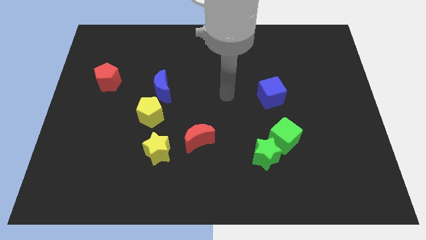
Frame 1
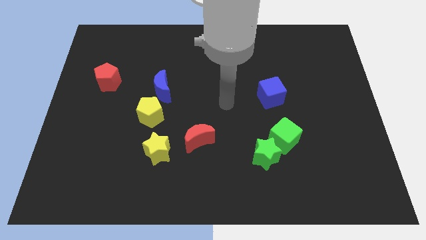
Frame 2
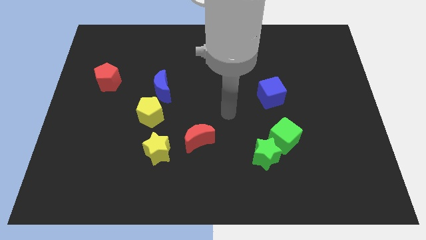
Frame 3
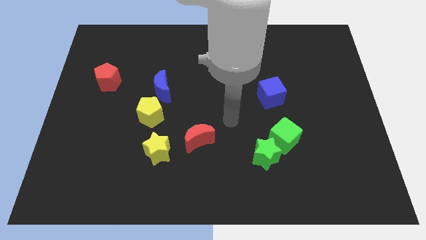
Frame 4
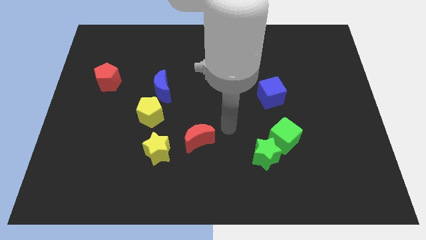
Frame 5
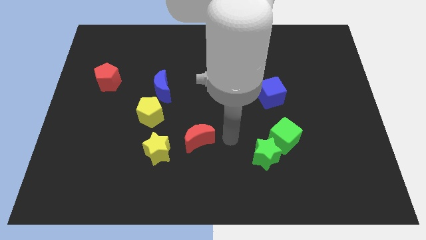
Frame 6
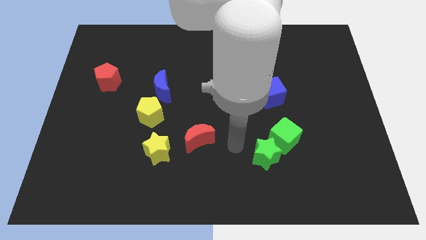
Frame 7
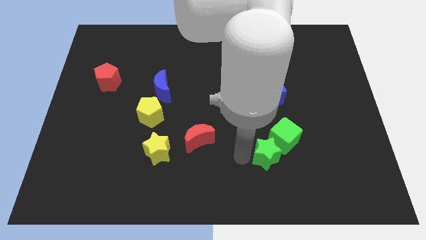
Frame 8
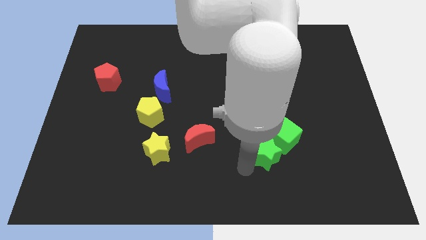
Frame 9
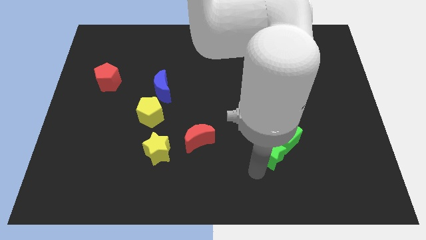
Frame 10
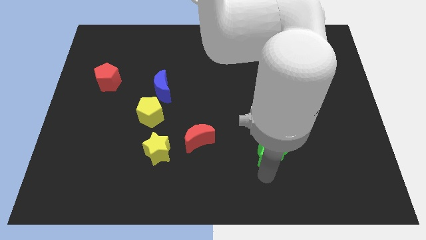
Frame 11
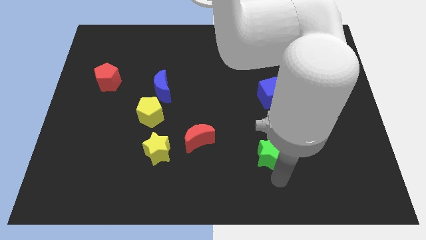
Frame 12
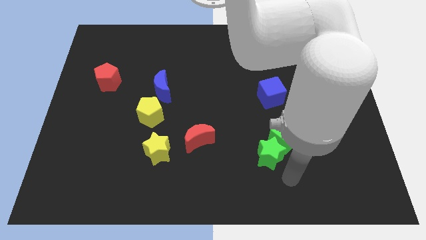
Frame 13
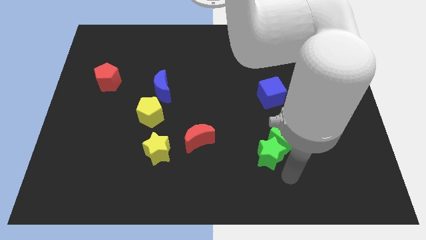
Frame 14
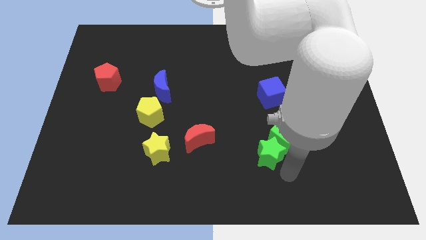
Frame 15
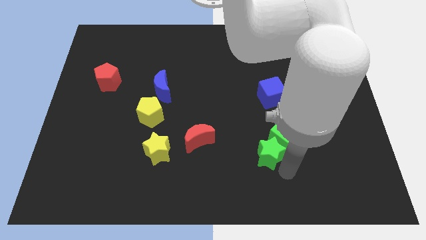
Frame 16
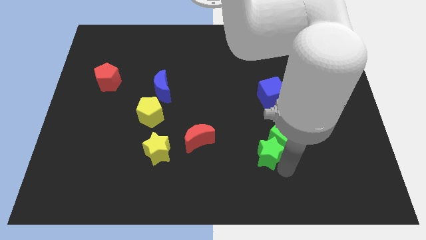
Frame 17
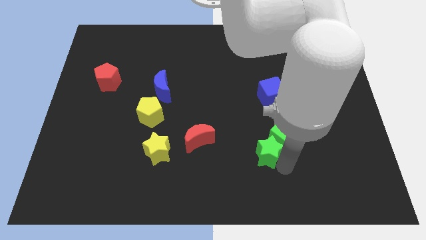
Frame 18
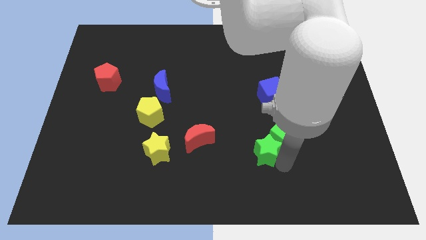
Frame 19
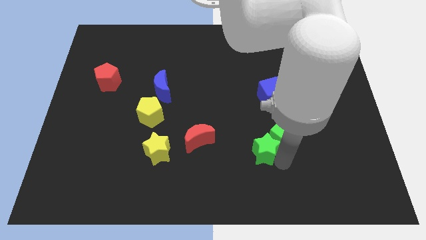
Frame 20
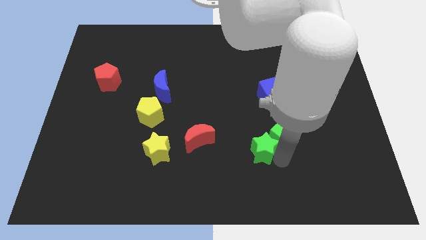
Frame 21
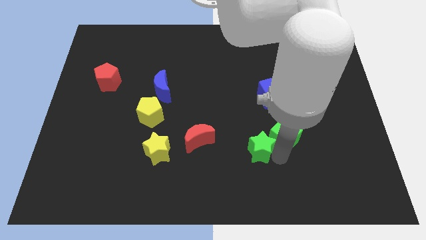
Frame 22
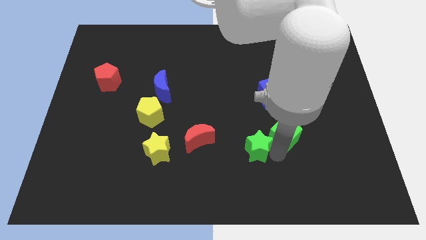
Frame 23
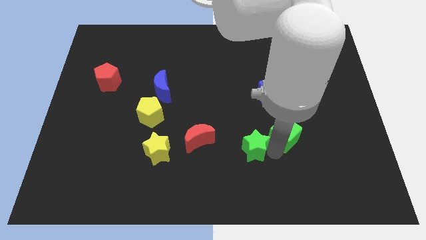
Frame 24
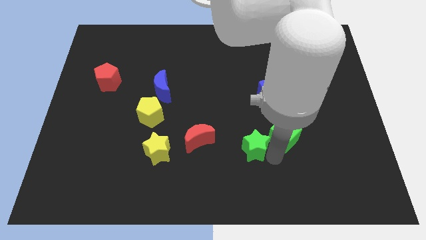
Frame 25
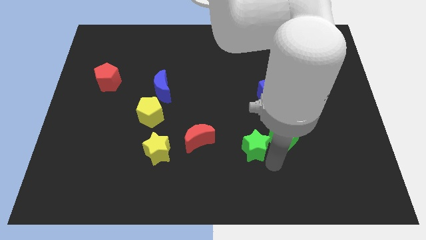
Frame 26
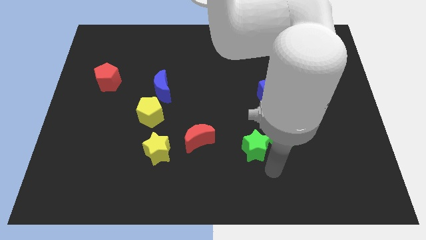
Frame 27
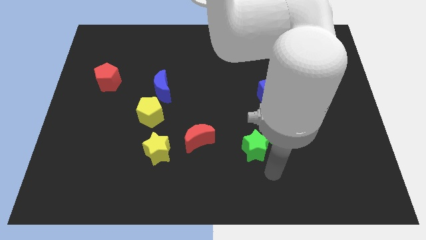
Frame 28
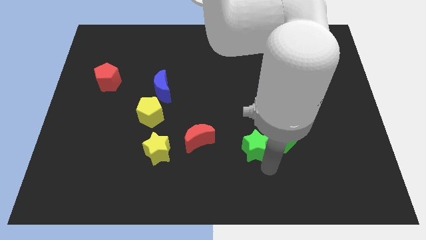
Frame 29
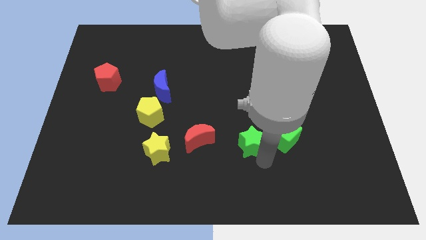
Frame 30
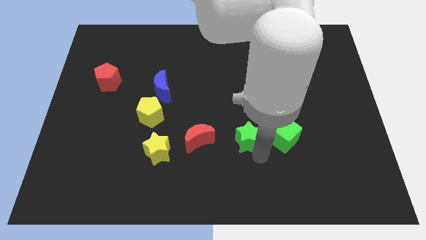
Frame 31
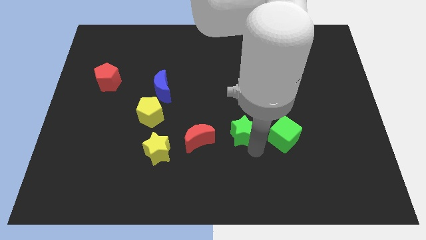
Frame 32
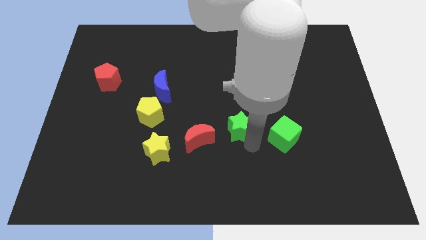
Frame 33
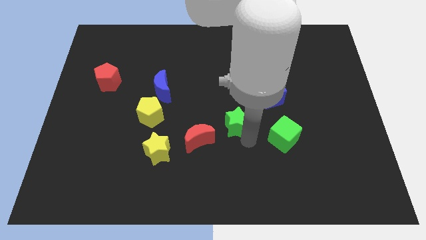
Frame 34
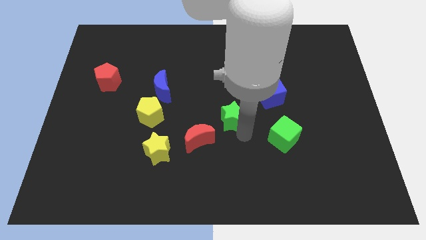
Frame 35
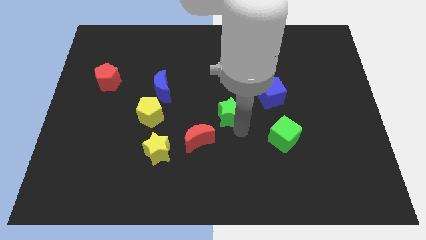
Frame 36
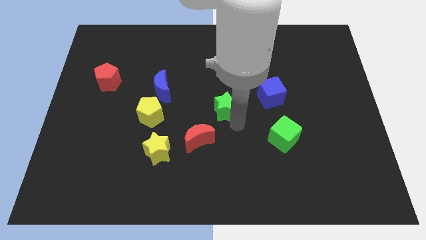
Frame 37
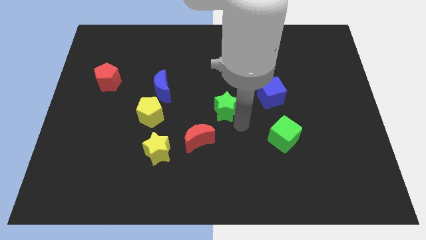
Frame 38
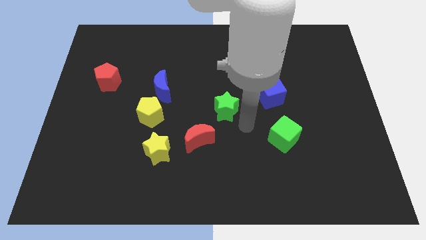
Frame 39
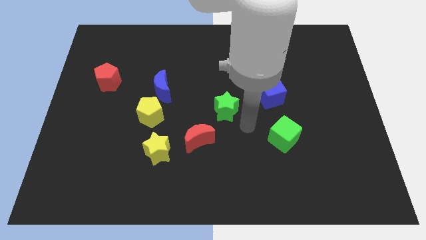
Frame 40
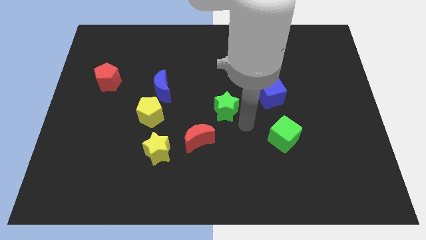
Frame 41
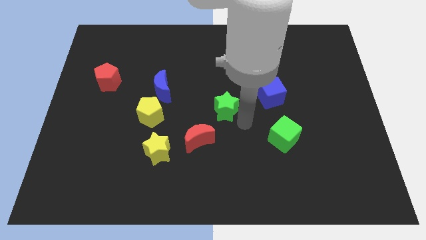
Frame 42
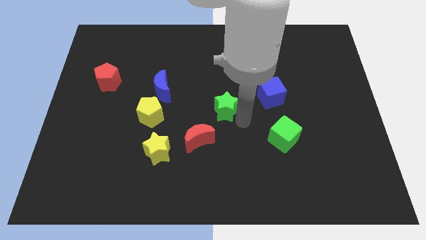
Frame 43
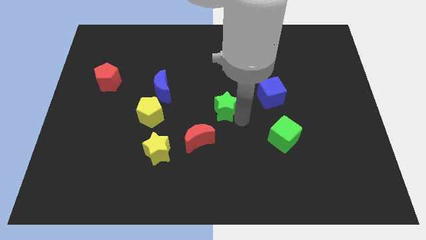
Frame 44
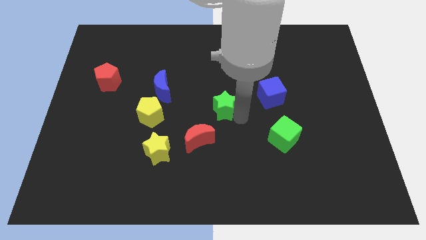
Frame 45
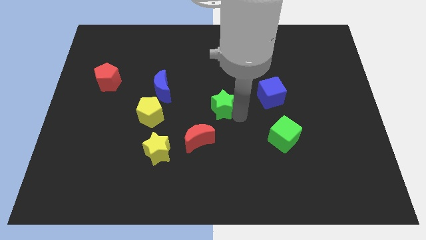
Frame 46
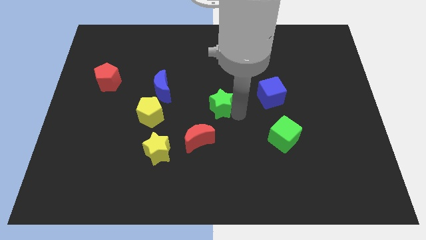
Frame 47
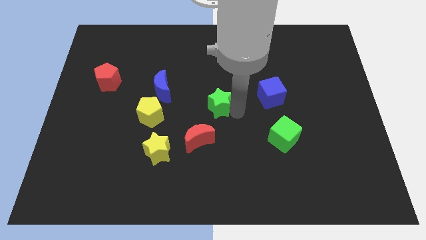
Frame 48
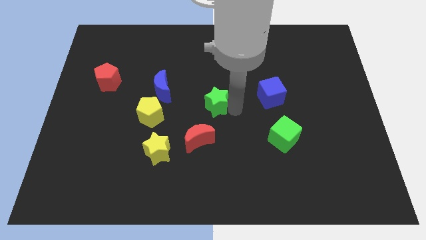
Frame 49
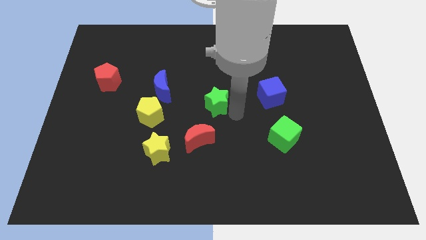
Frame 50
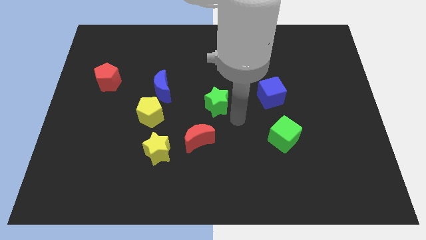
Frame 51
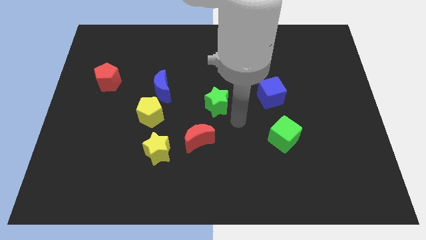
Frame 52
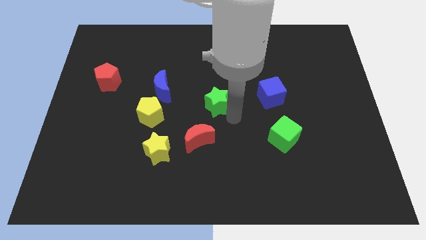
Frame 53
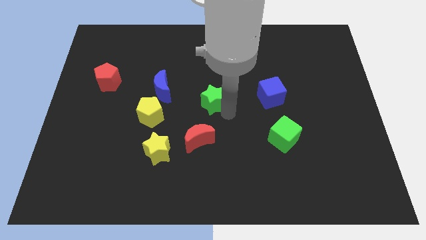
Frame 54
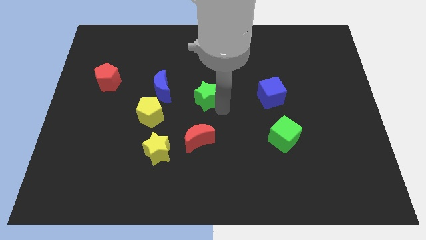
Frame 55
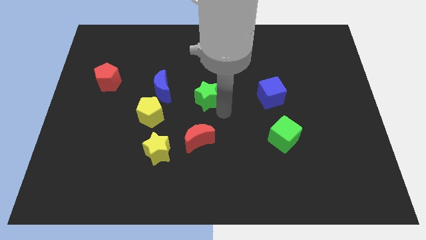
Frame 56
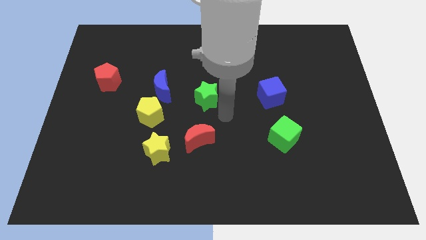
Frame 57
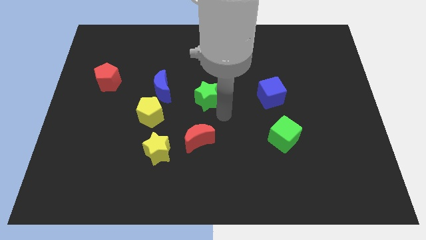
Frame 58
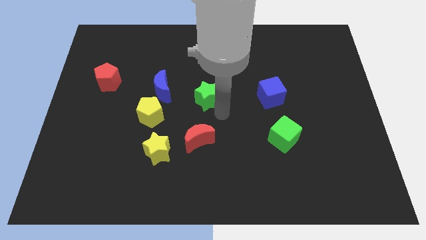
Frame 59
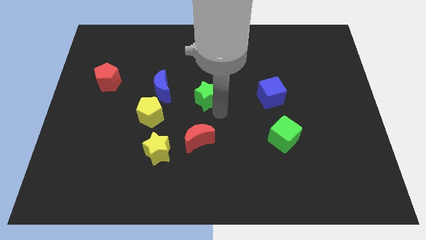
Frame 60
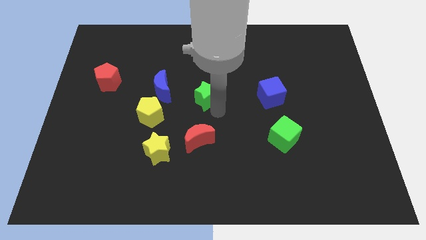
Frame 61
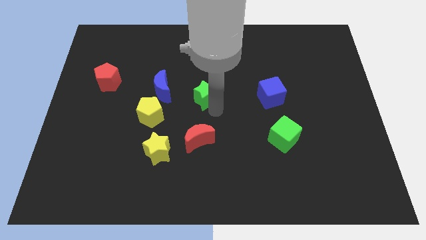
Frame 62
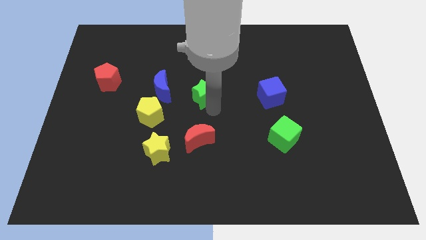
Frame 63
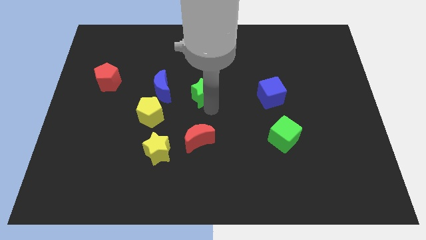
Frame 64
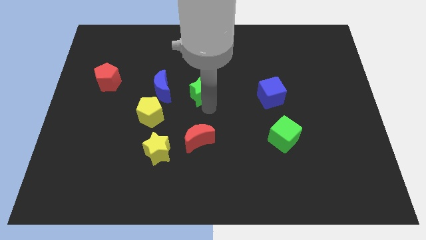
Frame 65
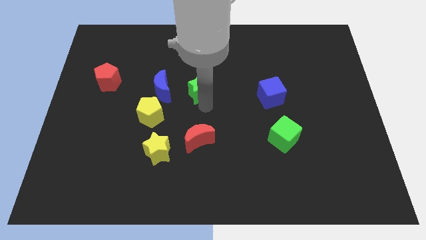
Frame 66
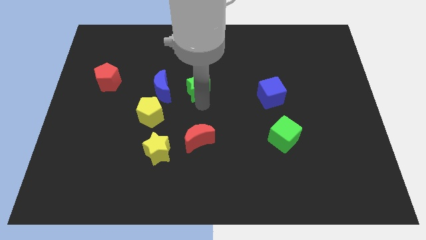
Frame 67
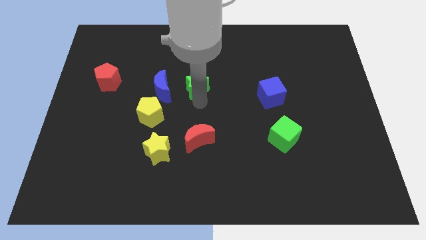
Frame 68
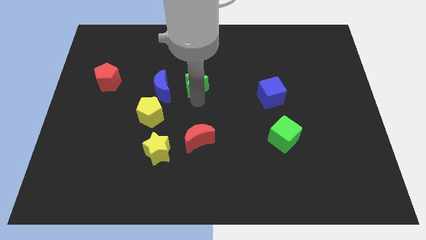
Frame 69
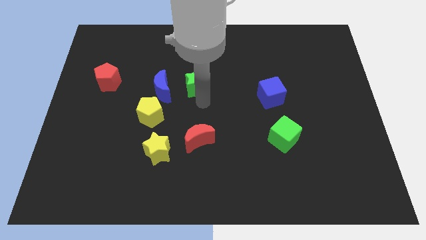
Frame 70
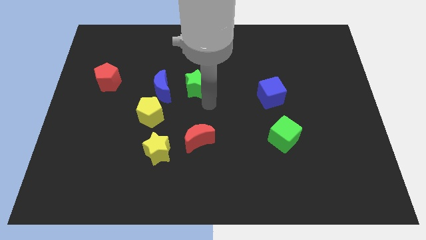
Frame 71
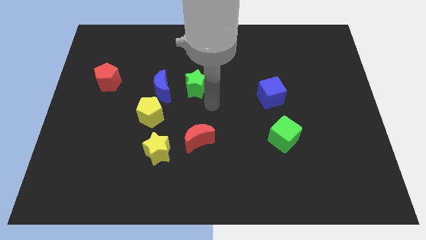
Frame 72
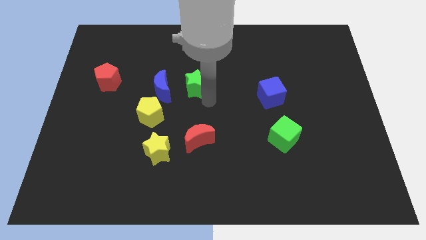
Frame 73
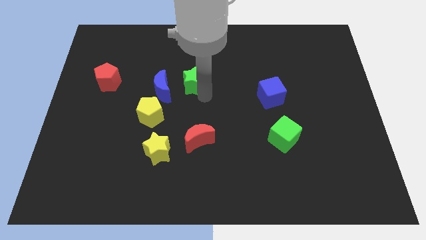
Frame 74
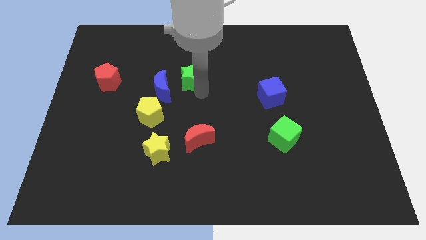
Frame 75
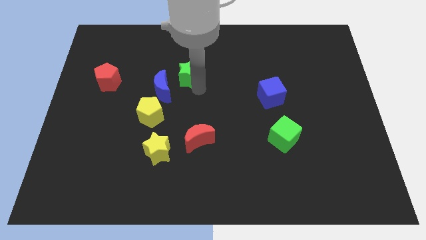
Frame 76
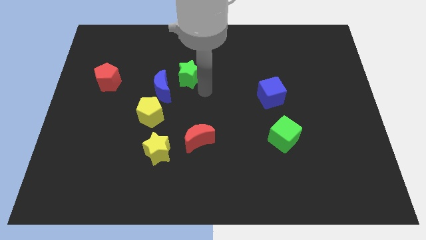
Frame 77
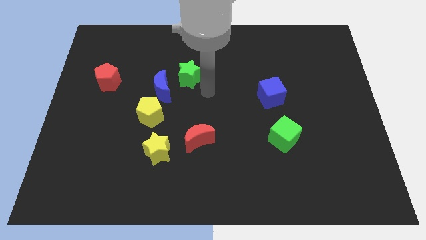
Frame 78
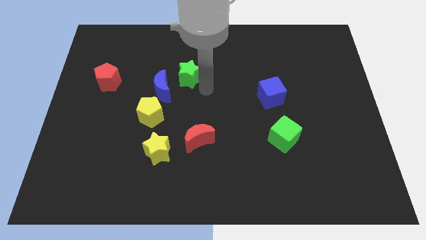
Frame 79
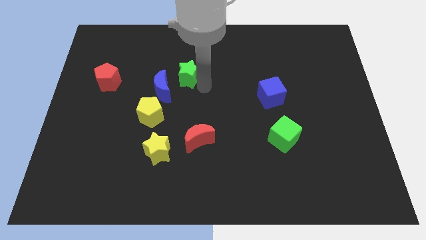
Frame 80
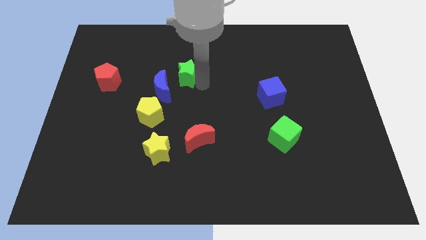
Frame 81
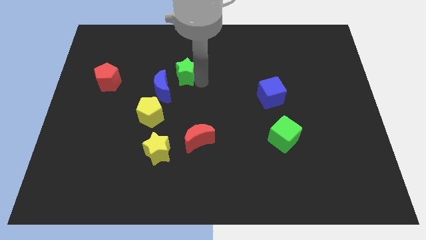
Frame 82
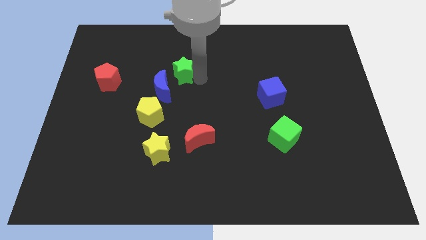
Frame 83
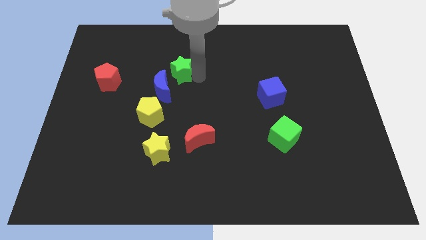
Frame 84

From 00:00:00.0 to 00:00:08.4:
push the green star to the top of the blue moon
